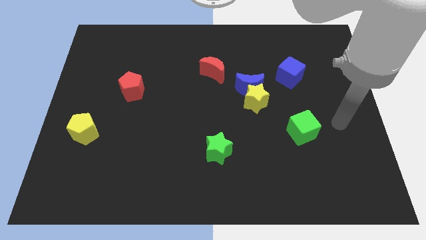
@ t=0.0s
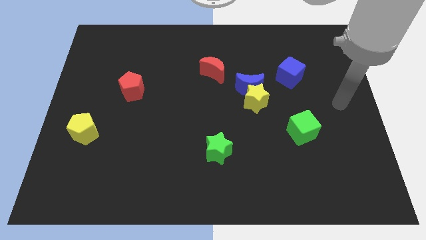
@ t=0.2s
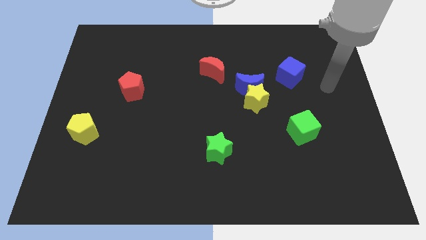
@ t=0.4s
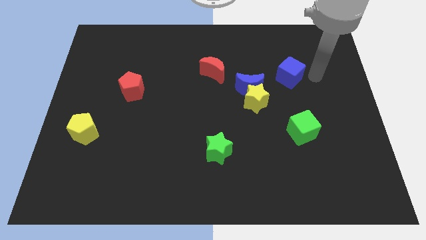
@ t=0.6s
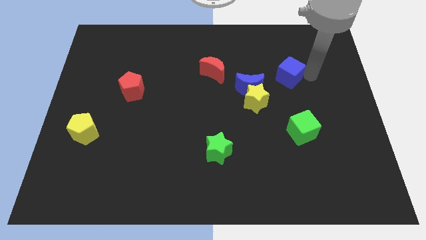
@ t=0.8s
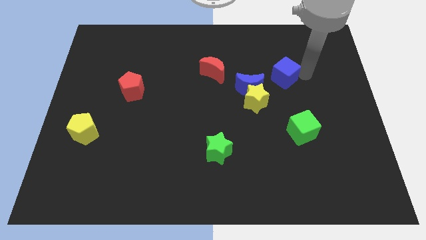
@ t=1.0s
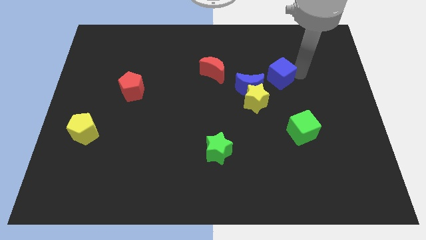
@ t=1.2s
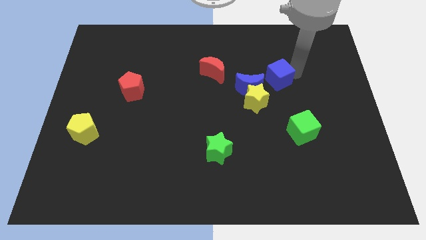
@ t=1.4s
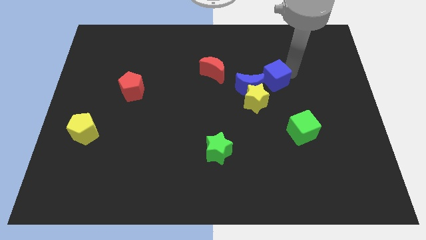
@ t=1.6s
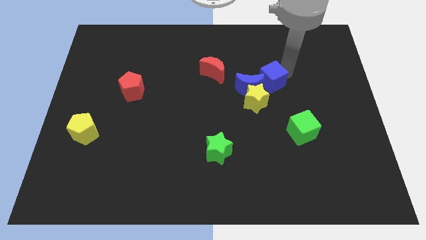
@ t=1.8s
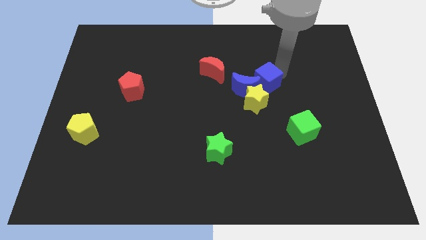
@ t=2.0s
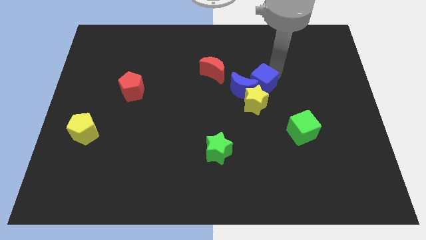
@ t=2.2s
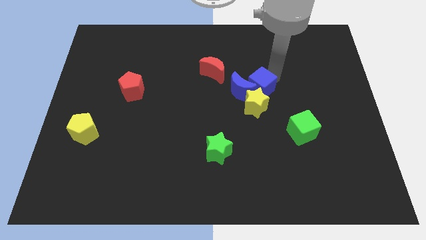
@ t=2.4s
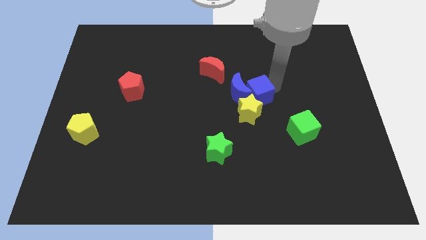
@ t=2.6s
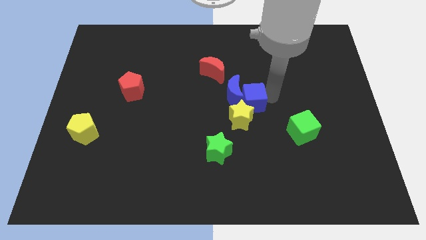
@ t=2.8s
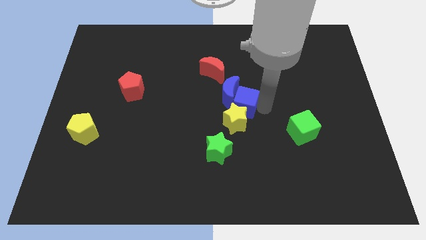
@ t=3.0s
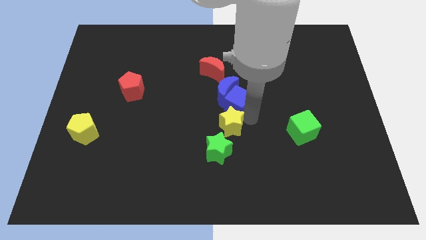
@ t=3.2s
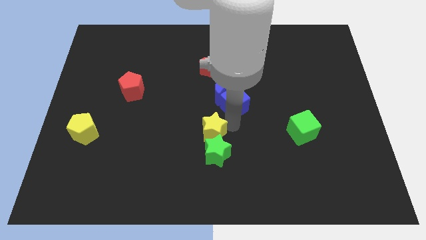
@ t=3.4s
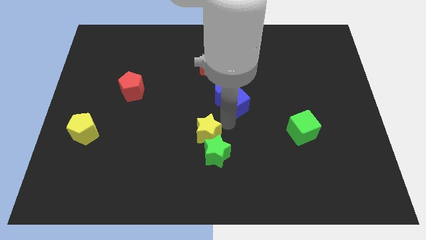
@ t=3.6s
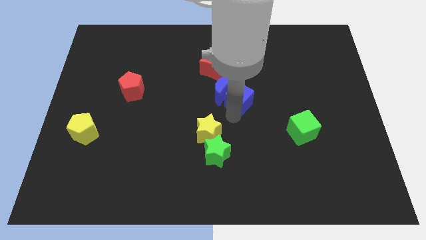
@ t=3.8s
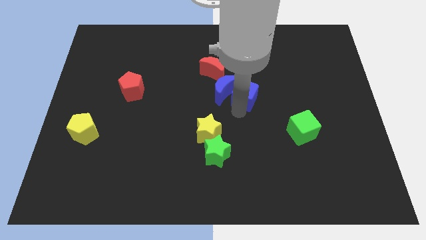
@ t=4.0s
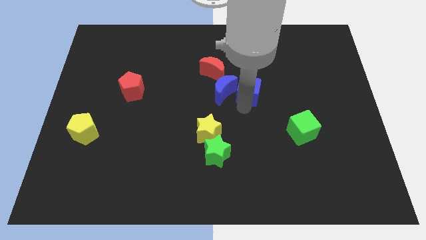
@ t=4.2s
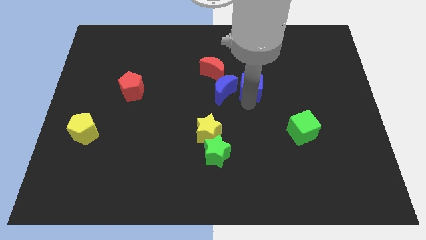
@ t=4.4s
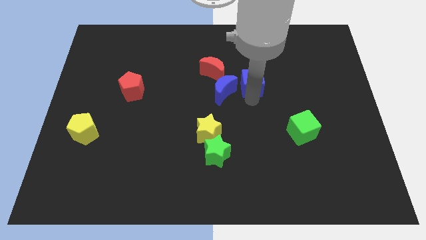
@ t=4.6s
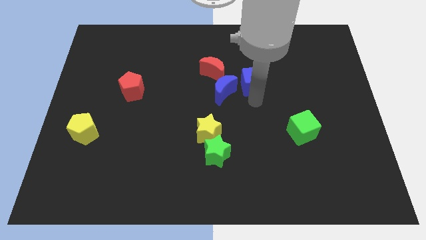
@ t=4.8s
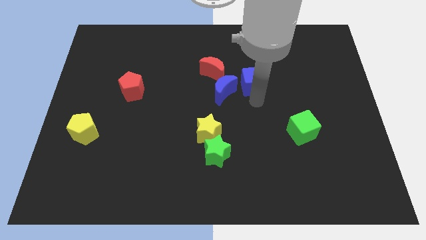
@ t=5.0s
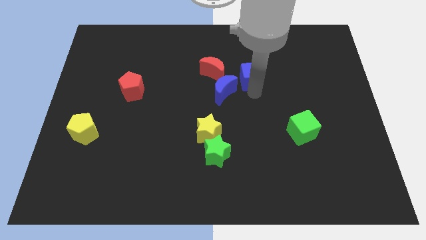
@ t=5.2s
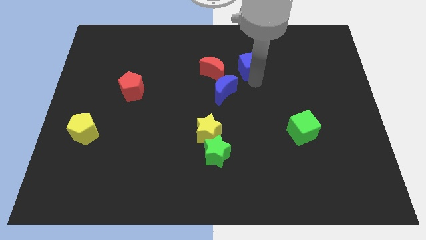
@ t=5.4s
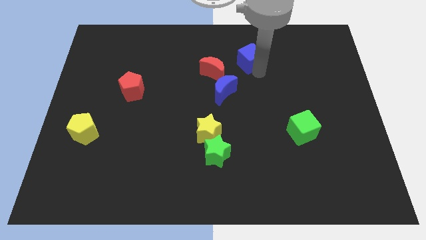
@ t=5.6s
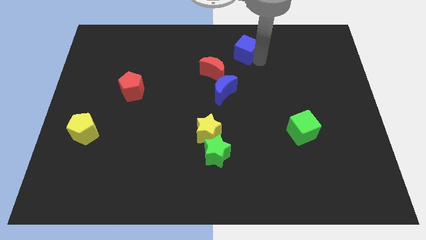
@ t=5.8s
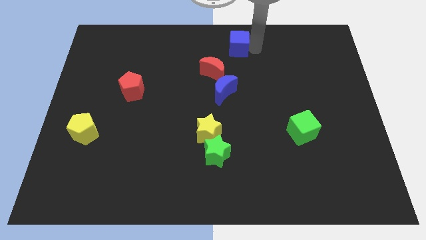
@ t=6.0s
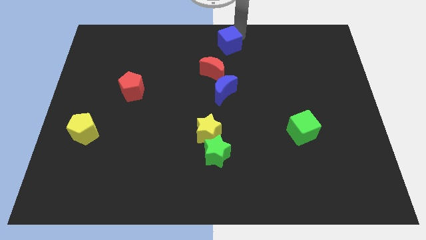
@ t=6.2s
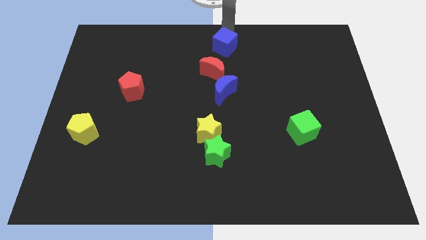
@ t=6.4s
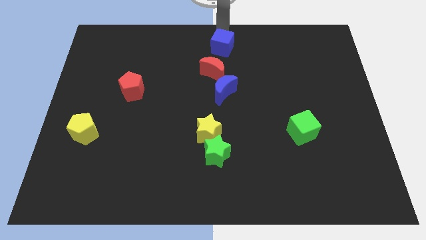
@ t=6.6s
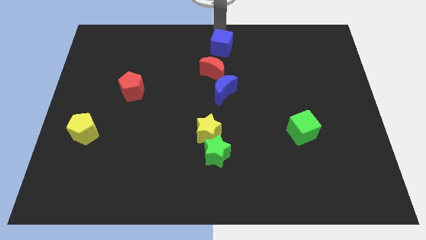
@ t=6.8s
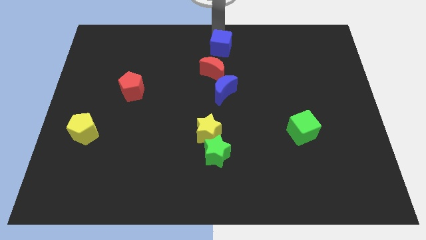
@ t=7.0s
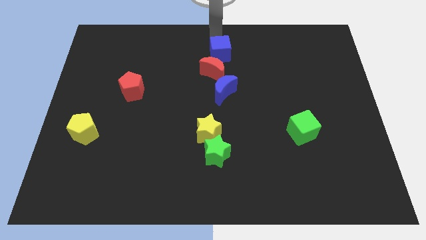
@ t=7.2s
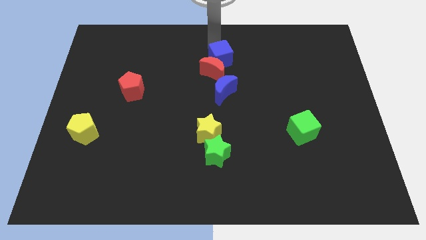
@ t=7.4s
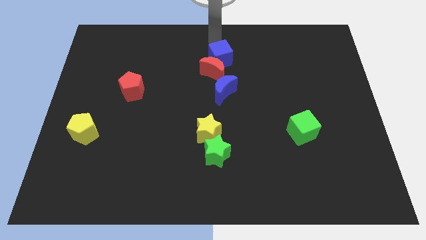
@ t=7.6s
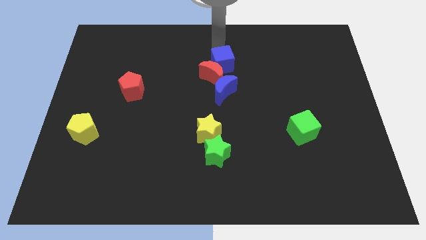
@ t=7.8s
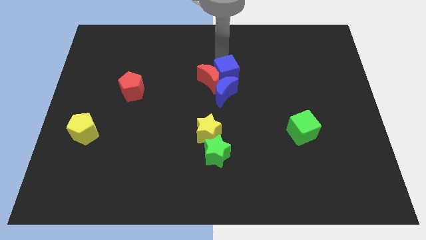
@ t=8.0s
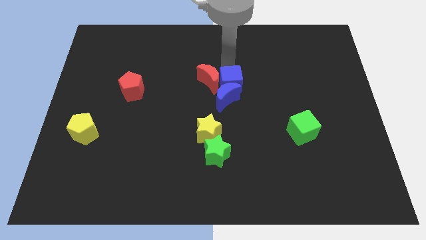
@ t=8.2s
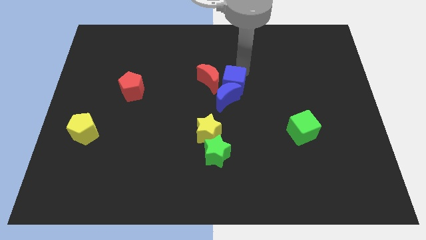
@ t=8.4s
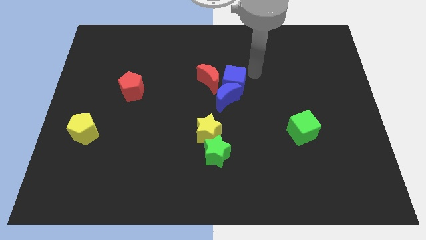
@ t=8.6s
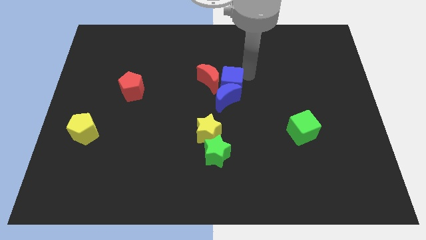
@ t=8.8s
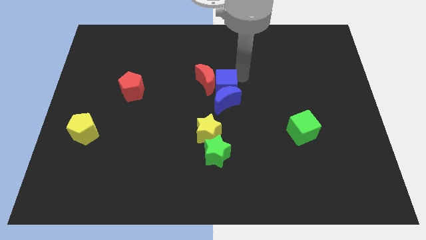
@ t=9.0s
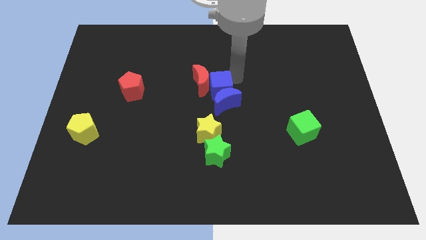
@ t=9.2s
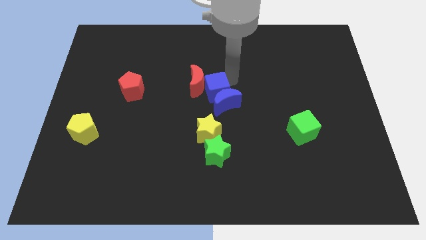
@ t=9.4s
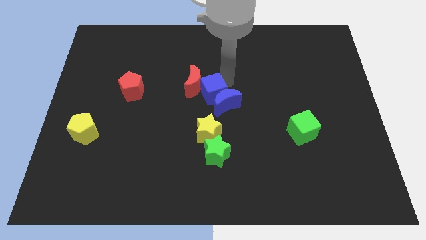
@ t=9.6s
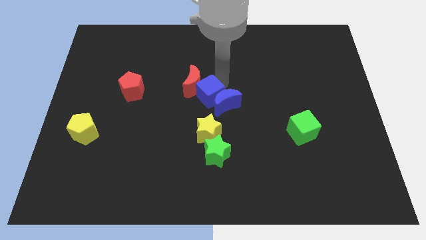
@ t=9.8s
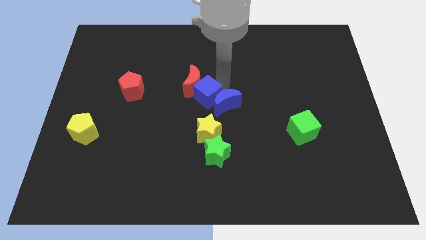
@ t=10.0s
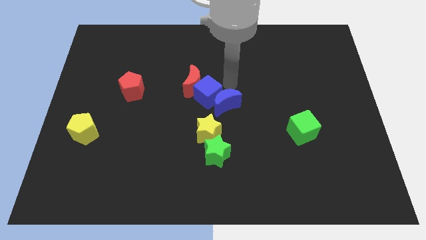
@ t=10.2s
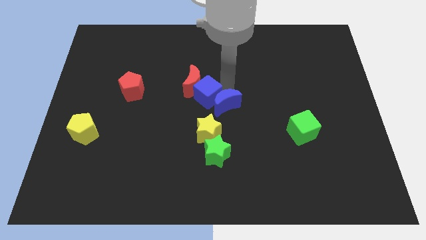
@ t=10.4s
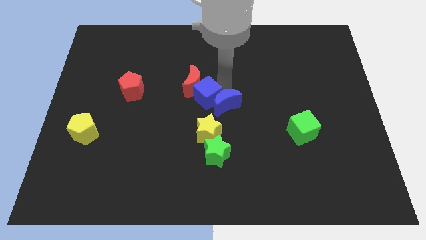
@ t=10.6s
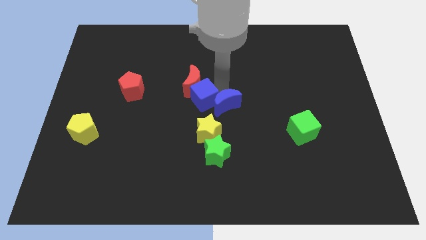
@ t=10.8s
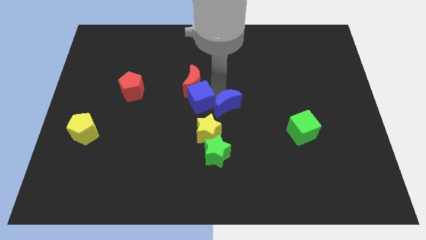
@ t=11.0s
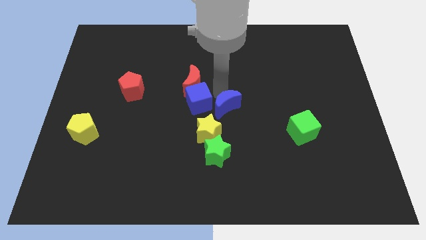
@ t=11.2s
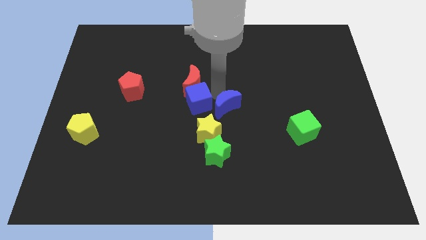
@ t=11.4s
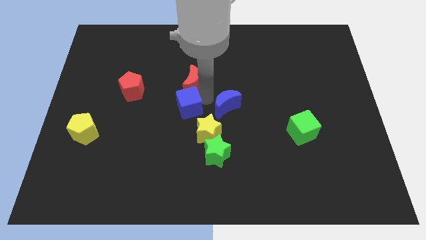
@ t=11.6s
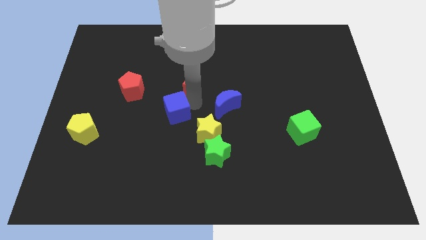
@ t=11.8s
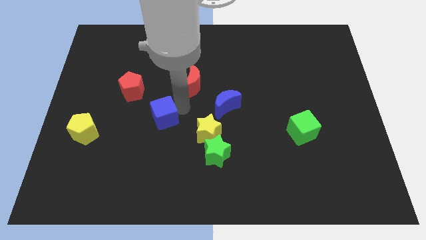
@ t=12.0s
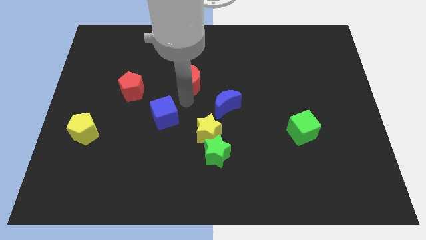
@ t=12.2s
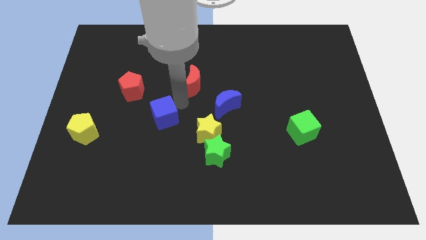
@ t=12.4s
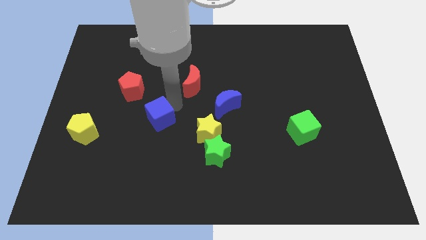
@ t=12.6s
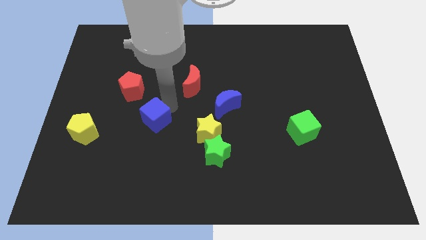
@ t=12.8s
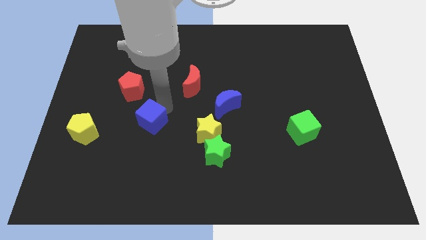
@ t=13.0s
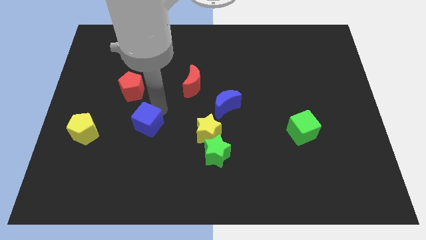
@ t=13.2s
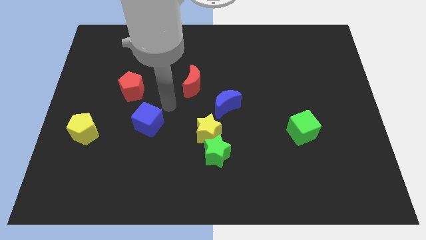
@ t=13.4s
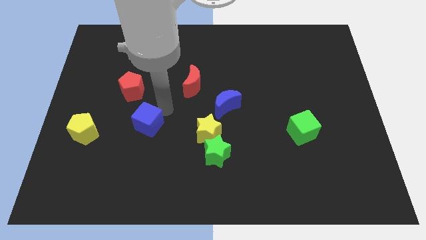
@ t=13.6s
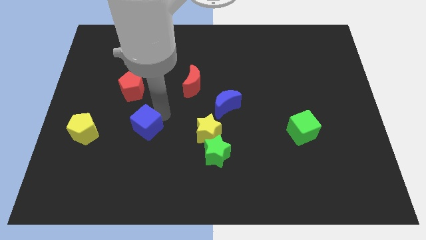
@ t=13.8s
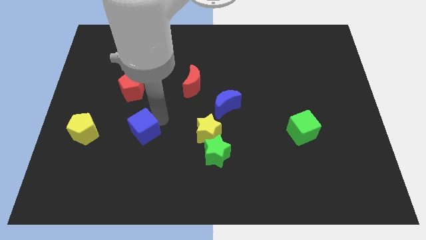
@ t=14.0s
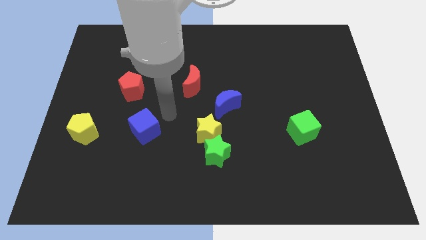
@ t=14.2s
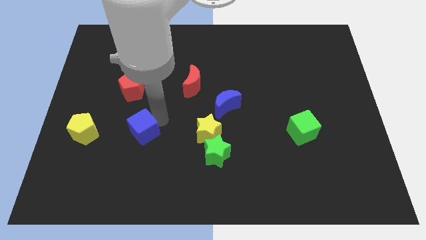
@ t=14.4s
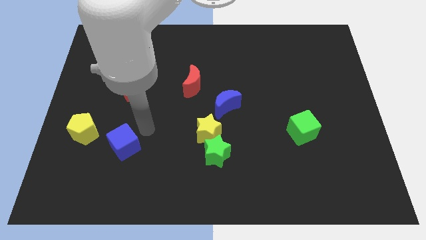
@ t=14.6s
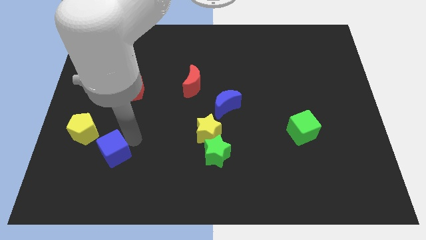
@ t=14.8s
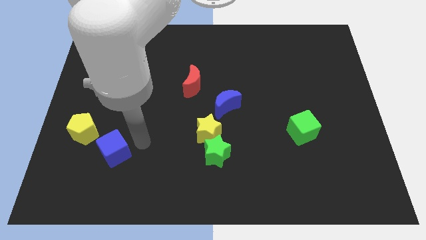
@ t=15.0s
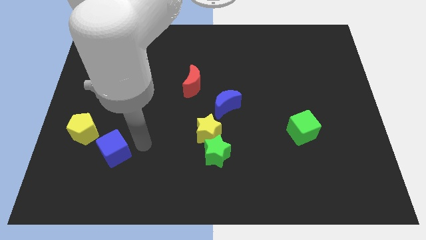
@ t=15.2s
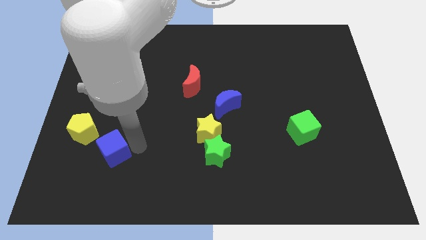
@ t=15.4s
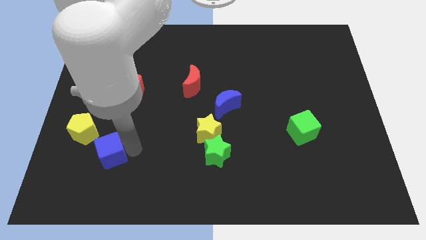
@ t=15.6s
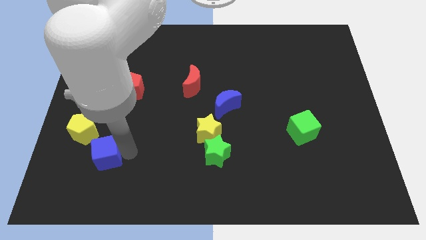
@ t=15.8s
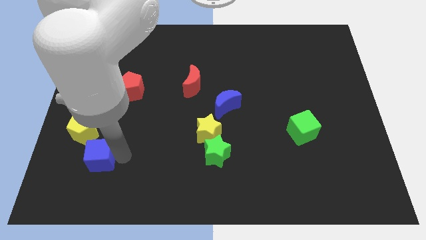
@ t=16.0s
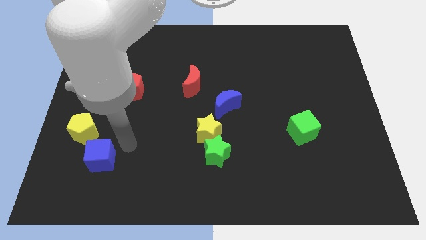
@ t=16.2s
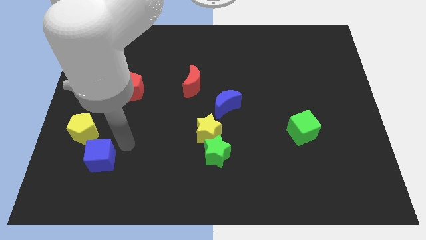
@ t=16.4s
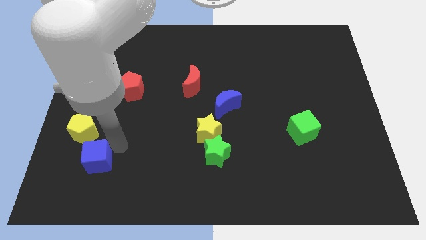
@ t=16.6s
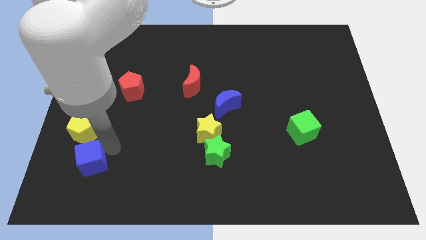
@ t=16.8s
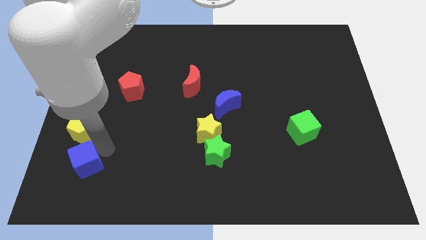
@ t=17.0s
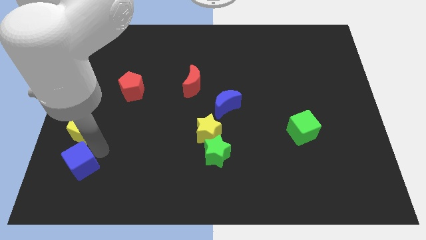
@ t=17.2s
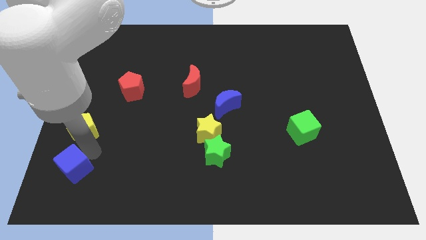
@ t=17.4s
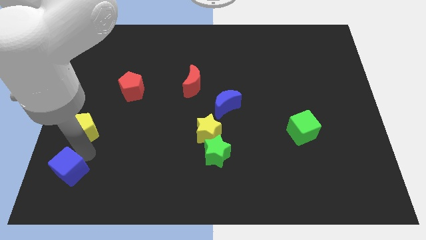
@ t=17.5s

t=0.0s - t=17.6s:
slide the blue cube to the lower left corner
